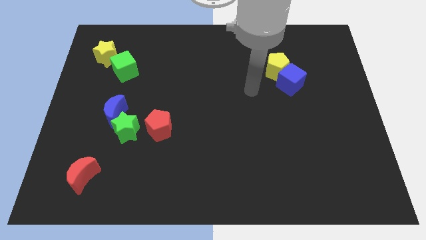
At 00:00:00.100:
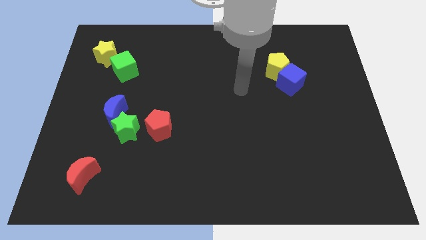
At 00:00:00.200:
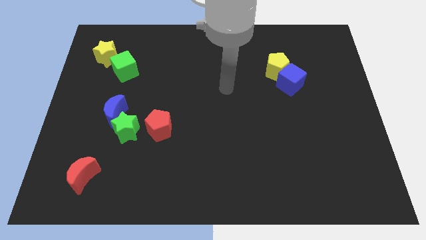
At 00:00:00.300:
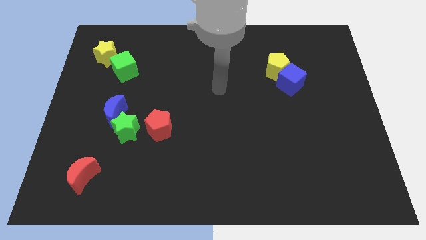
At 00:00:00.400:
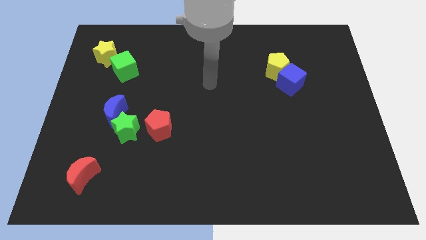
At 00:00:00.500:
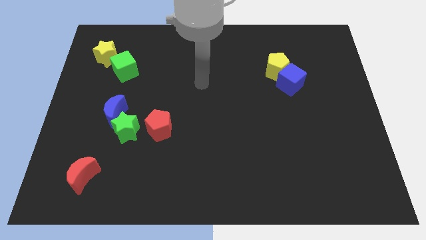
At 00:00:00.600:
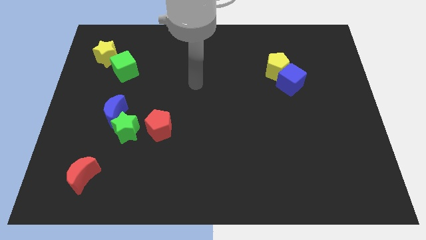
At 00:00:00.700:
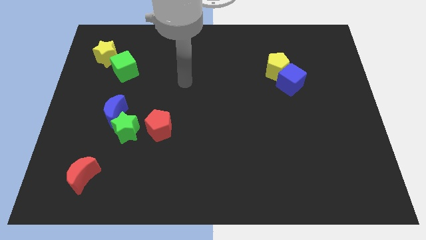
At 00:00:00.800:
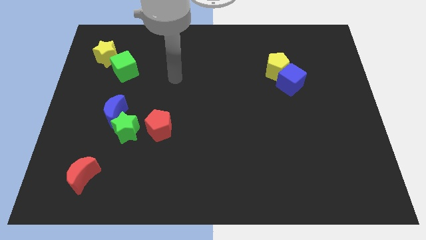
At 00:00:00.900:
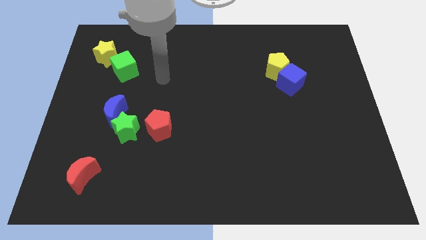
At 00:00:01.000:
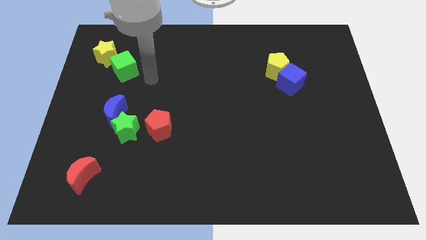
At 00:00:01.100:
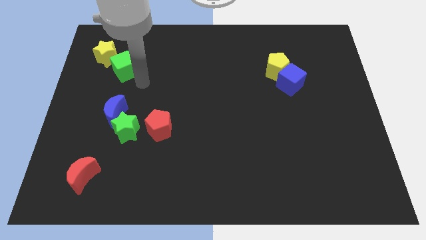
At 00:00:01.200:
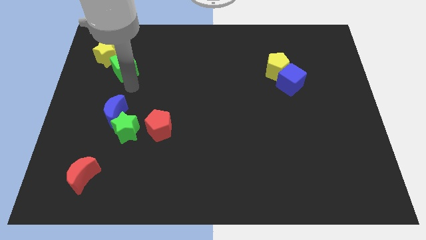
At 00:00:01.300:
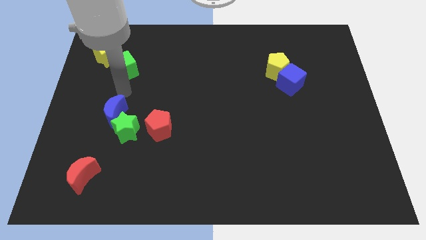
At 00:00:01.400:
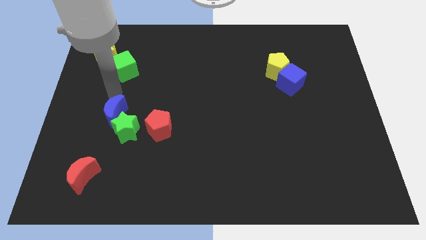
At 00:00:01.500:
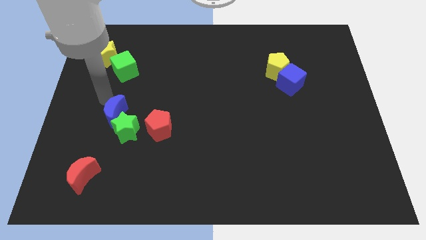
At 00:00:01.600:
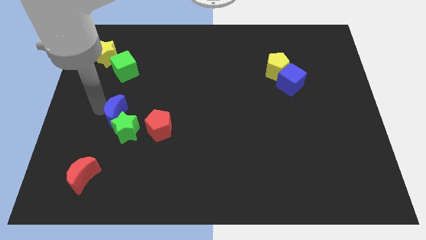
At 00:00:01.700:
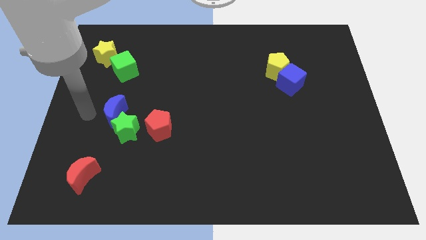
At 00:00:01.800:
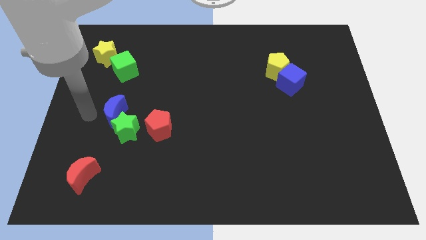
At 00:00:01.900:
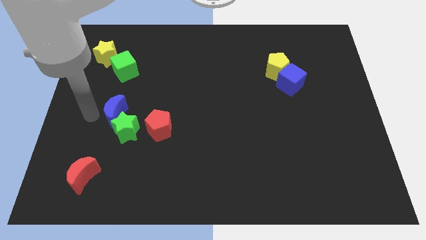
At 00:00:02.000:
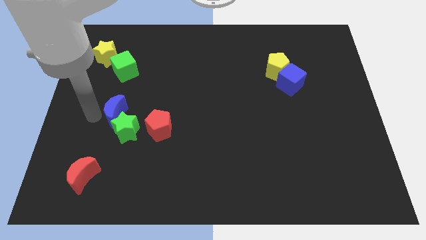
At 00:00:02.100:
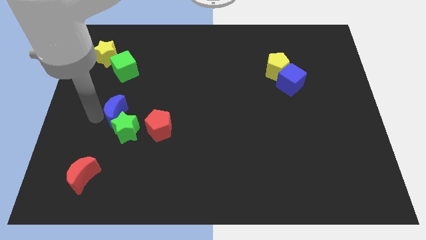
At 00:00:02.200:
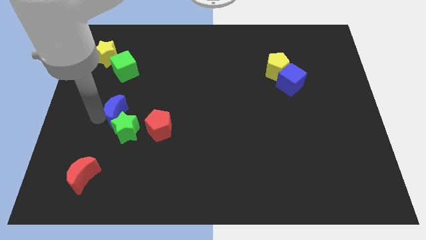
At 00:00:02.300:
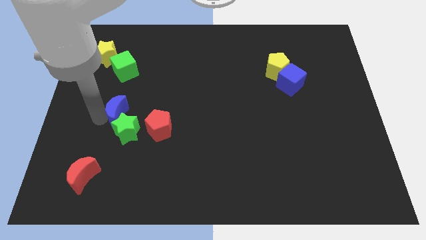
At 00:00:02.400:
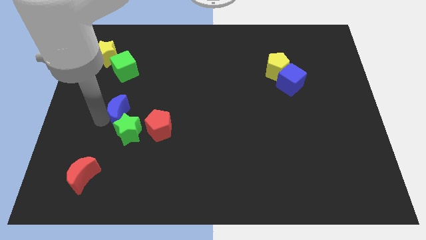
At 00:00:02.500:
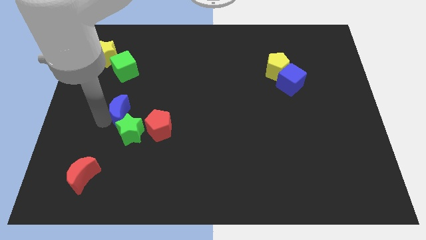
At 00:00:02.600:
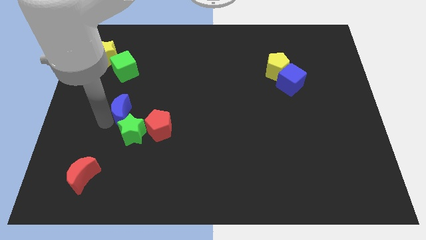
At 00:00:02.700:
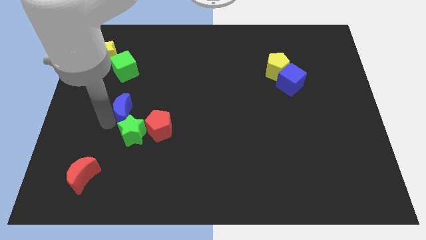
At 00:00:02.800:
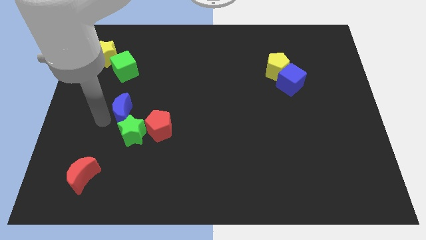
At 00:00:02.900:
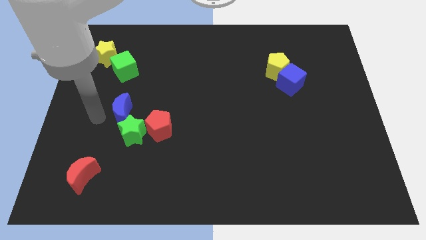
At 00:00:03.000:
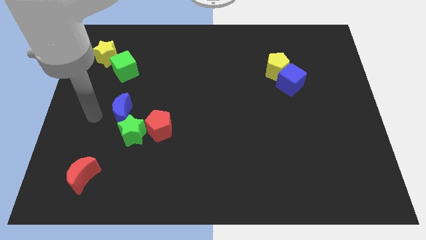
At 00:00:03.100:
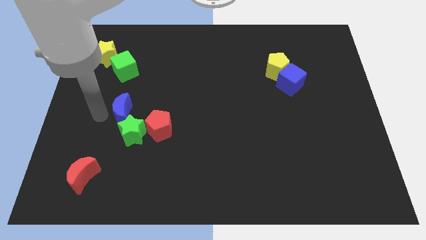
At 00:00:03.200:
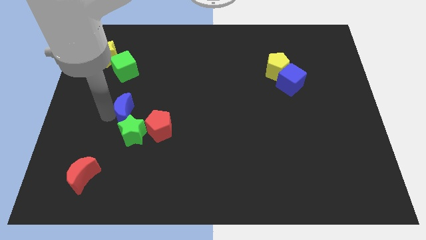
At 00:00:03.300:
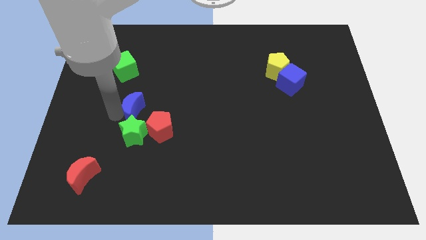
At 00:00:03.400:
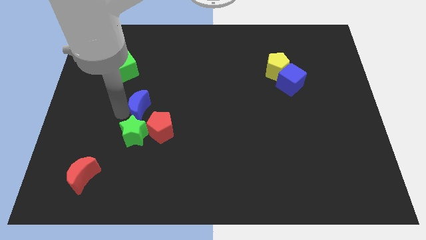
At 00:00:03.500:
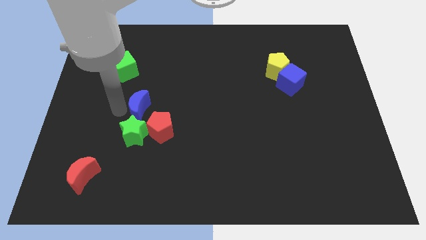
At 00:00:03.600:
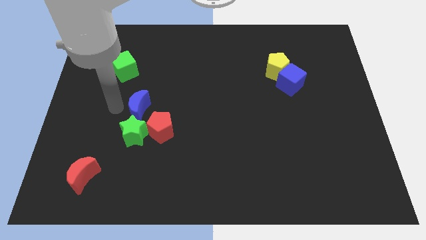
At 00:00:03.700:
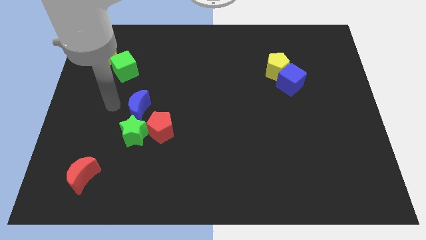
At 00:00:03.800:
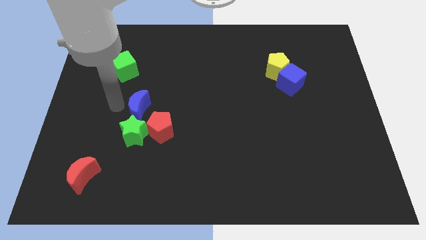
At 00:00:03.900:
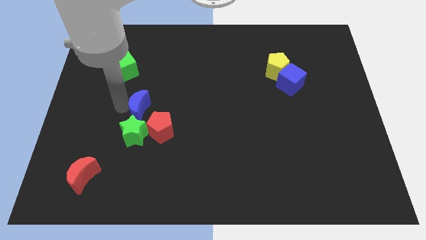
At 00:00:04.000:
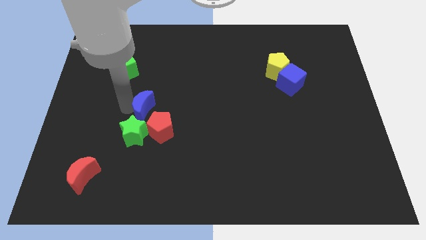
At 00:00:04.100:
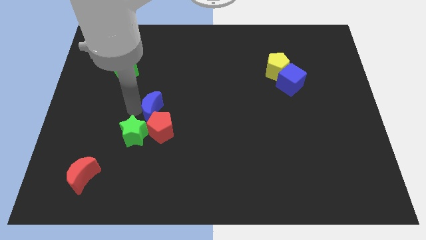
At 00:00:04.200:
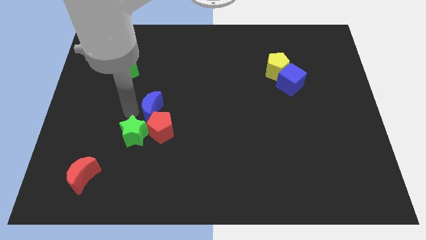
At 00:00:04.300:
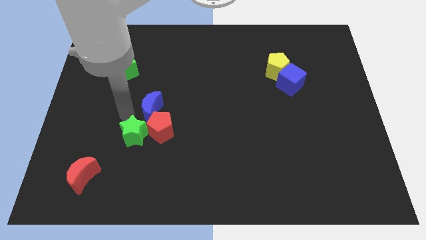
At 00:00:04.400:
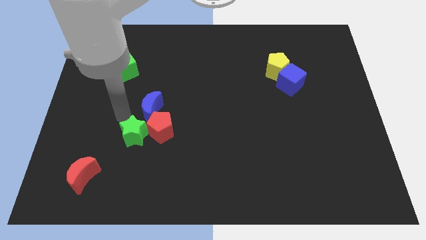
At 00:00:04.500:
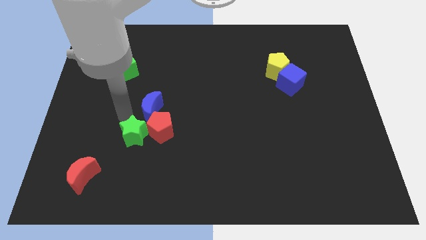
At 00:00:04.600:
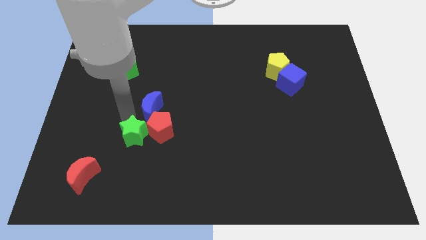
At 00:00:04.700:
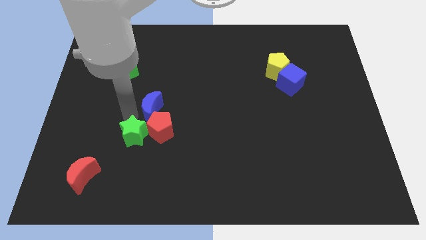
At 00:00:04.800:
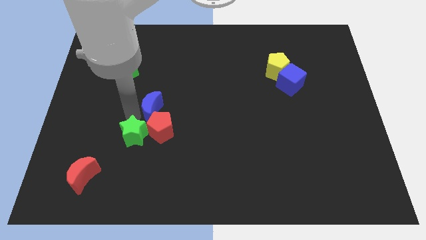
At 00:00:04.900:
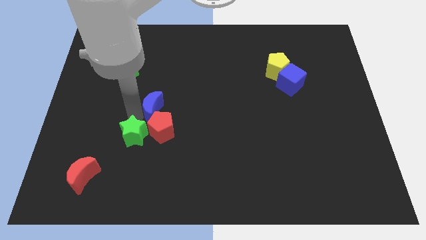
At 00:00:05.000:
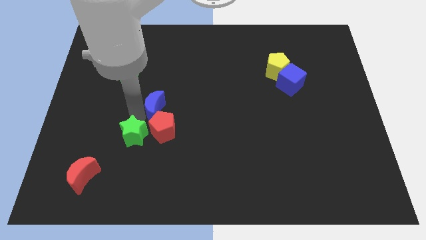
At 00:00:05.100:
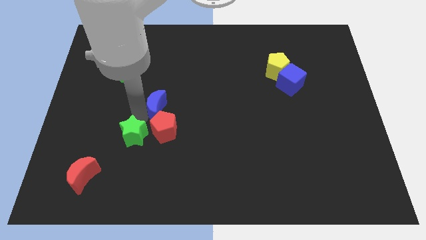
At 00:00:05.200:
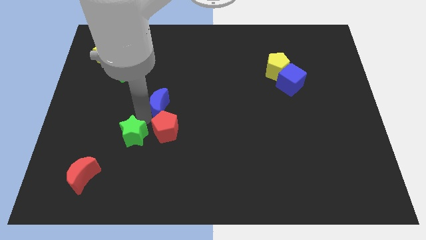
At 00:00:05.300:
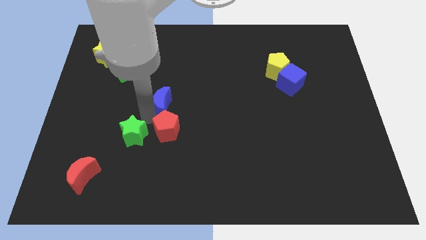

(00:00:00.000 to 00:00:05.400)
push the blue moon to the center of the board

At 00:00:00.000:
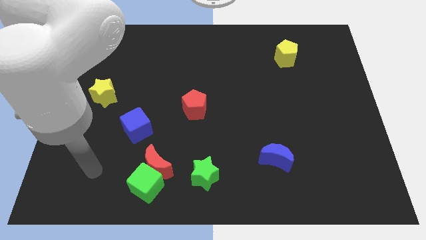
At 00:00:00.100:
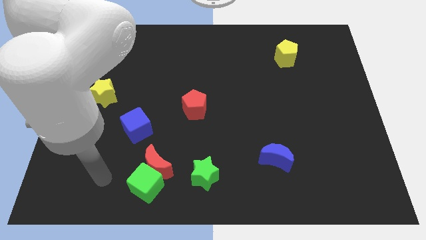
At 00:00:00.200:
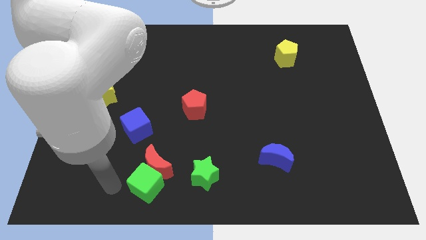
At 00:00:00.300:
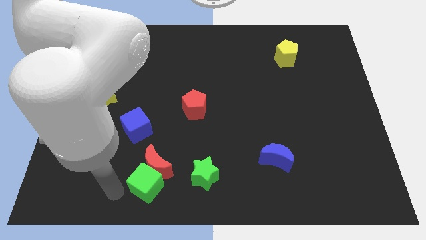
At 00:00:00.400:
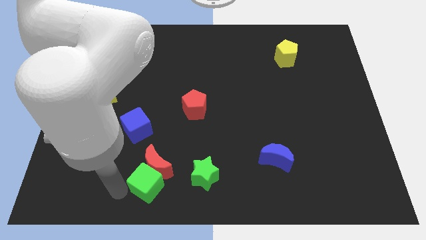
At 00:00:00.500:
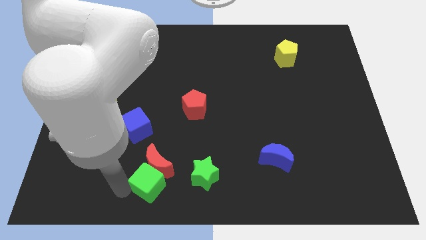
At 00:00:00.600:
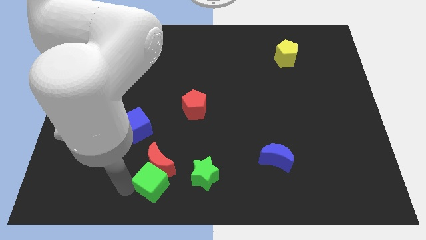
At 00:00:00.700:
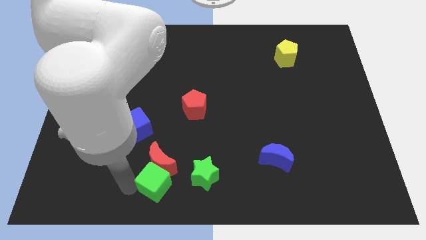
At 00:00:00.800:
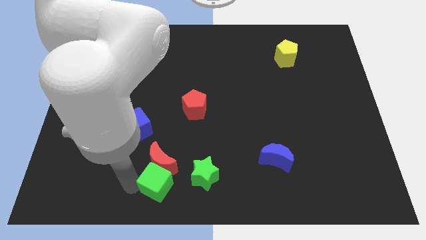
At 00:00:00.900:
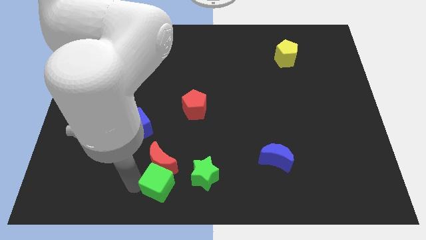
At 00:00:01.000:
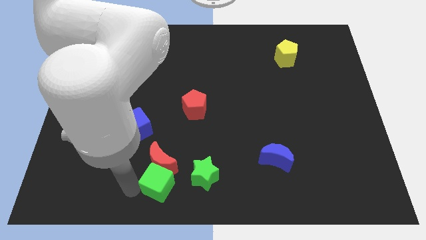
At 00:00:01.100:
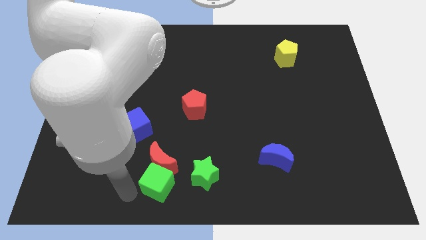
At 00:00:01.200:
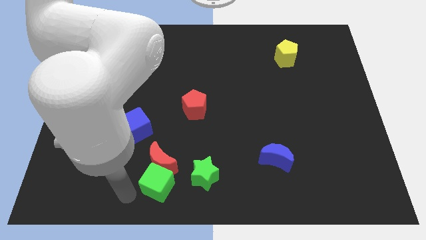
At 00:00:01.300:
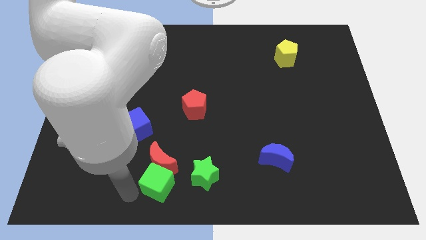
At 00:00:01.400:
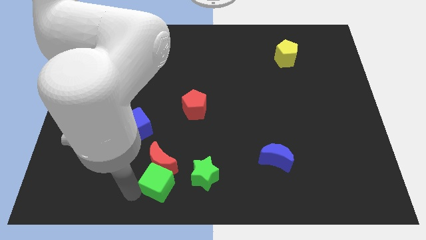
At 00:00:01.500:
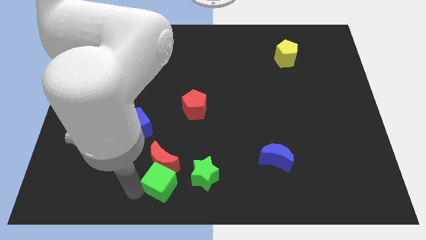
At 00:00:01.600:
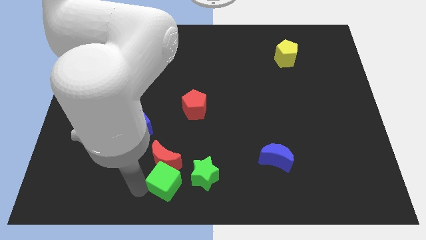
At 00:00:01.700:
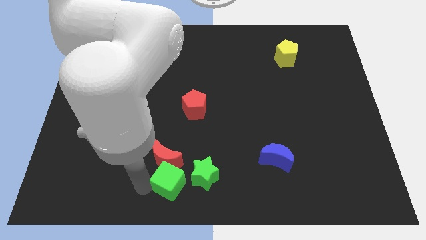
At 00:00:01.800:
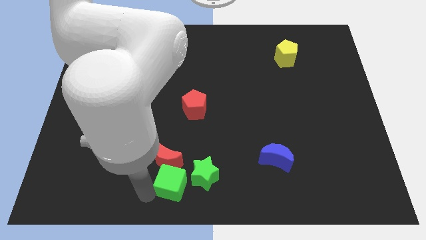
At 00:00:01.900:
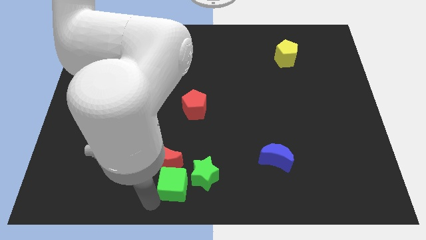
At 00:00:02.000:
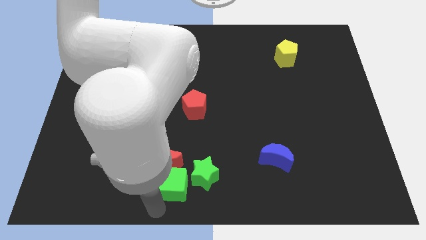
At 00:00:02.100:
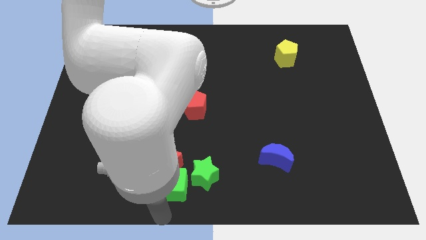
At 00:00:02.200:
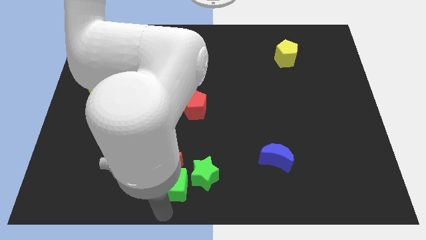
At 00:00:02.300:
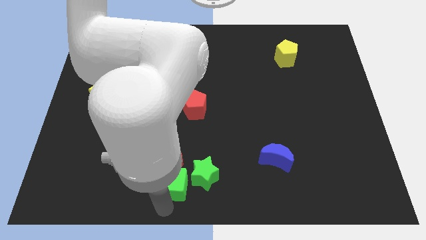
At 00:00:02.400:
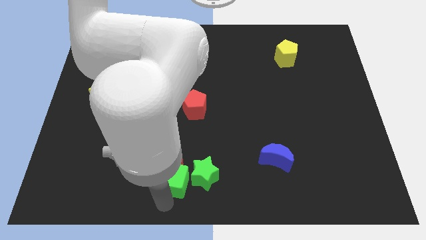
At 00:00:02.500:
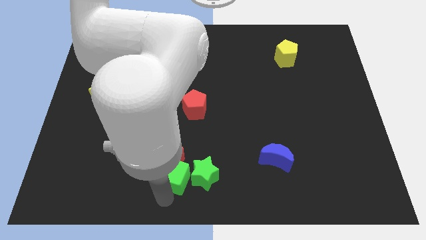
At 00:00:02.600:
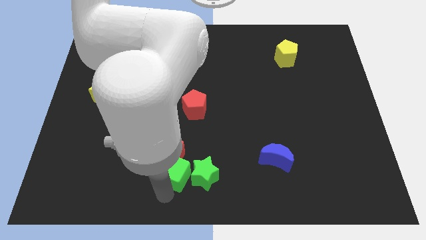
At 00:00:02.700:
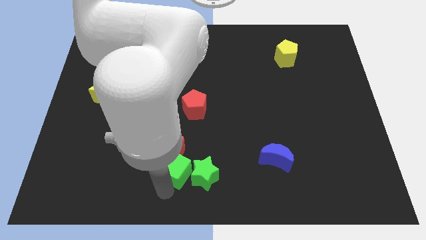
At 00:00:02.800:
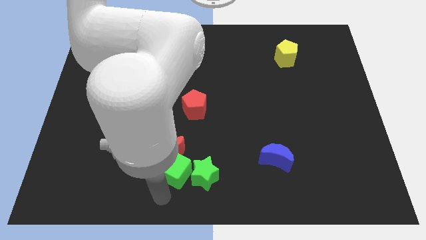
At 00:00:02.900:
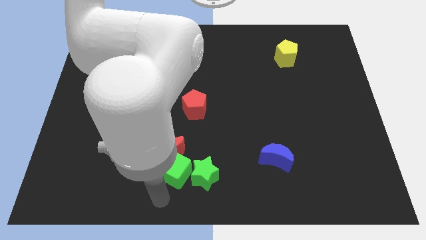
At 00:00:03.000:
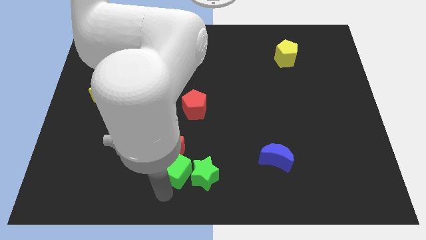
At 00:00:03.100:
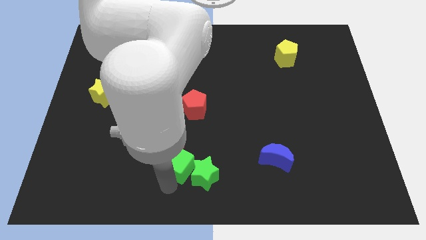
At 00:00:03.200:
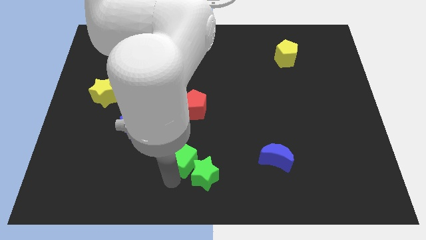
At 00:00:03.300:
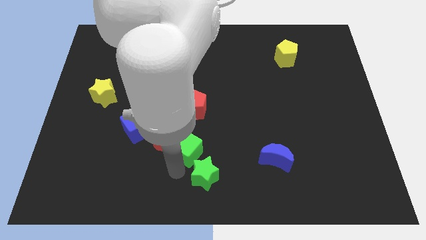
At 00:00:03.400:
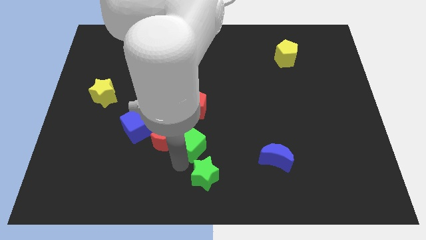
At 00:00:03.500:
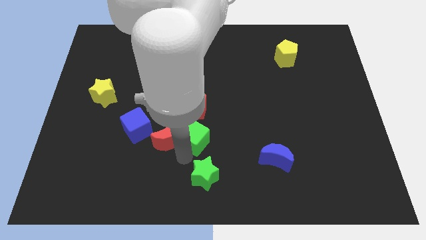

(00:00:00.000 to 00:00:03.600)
slide the green cube to the middle of the board
